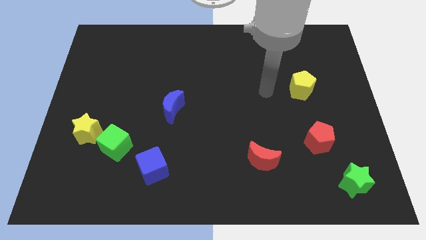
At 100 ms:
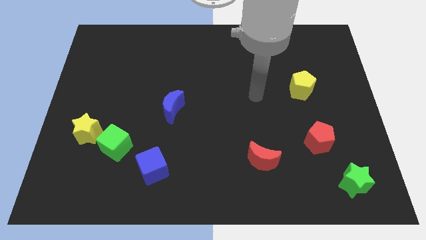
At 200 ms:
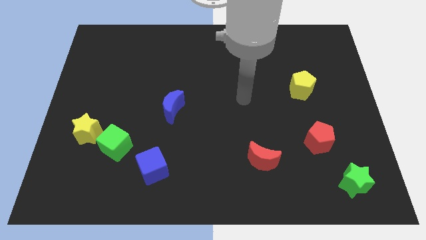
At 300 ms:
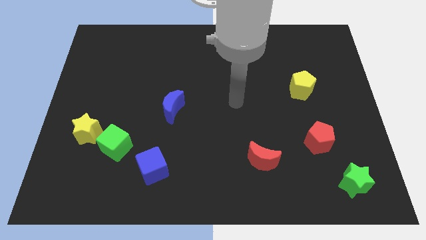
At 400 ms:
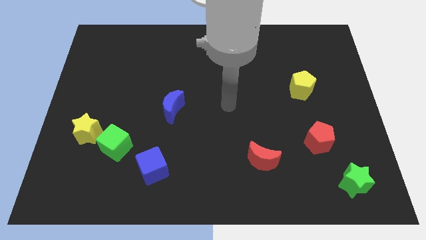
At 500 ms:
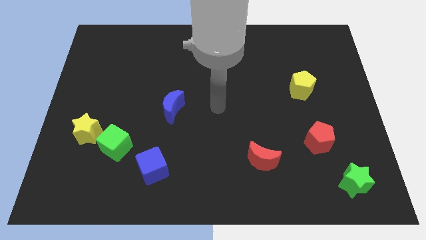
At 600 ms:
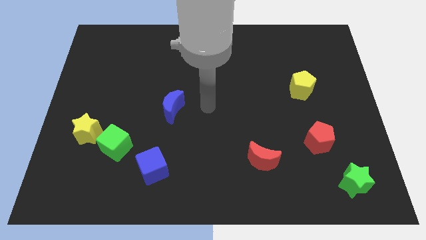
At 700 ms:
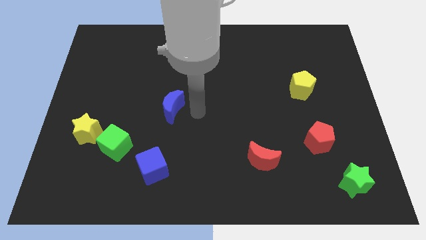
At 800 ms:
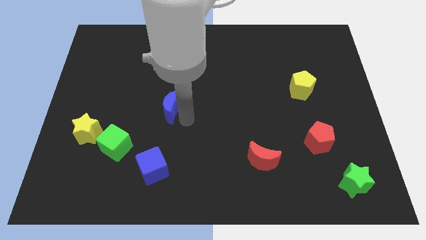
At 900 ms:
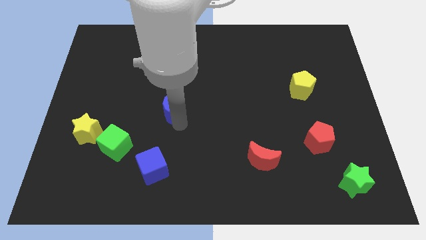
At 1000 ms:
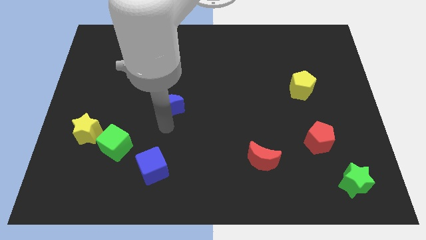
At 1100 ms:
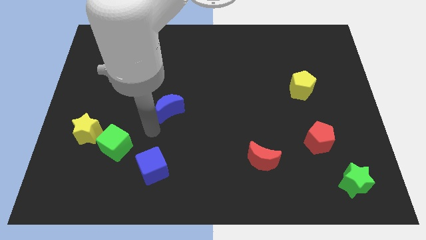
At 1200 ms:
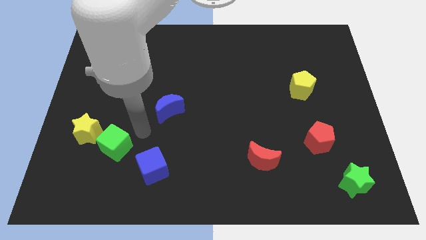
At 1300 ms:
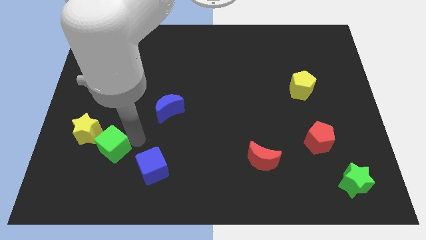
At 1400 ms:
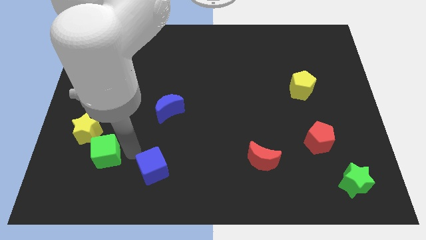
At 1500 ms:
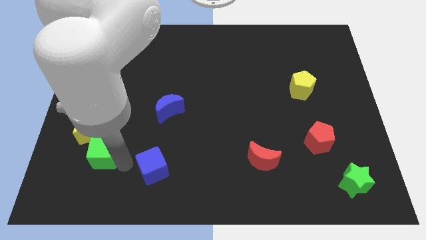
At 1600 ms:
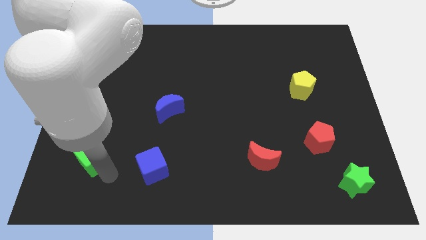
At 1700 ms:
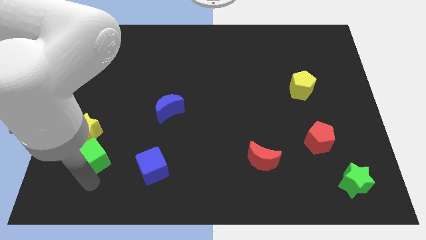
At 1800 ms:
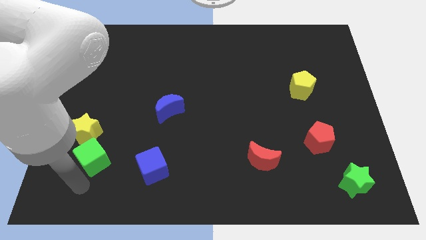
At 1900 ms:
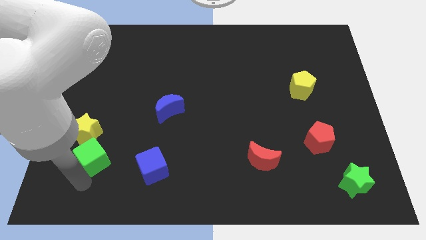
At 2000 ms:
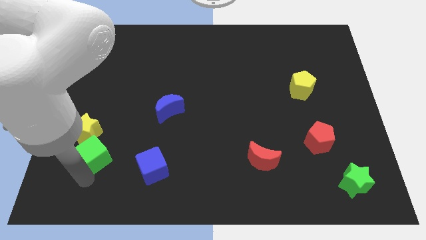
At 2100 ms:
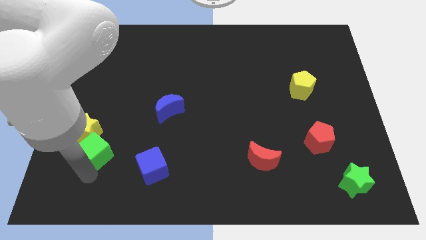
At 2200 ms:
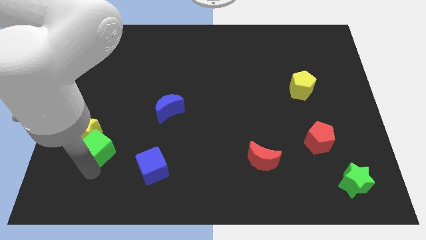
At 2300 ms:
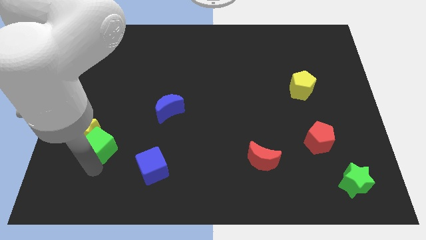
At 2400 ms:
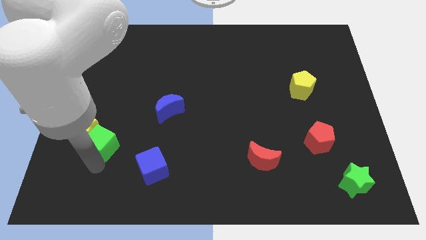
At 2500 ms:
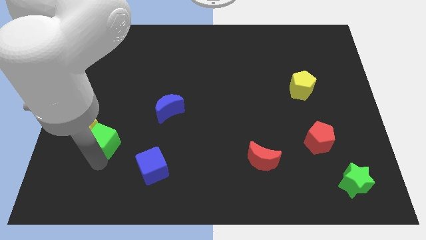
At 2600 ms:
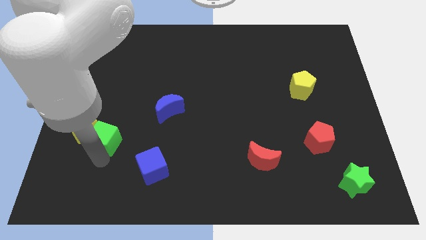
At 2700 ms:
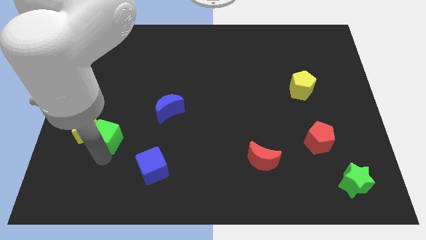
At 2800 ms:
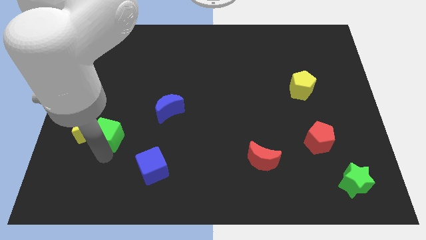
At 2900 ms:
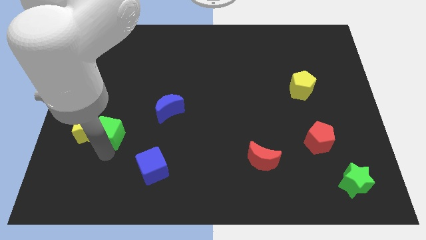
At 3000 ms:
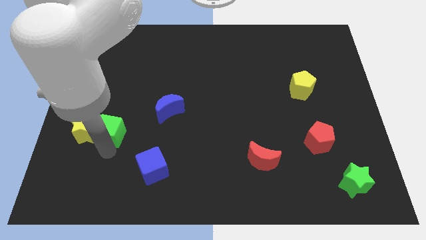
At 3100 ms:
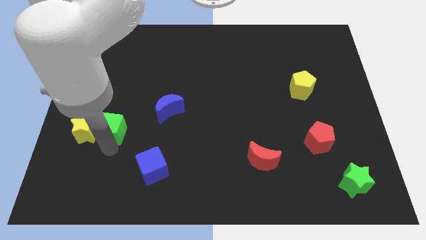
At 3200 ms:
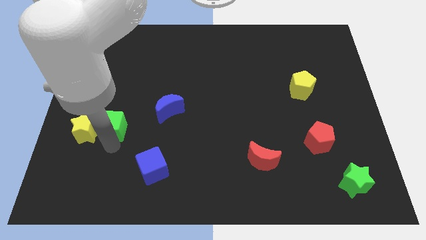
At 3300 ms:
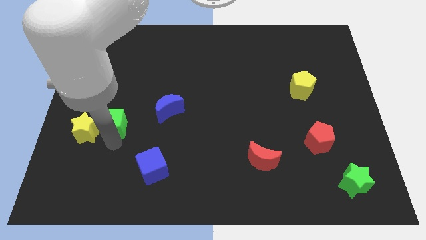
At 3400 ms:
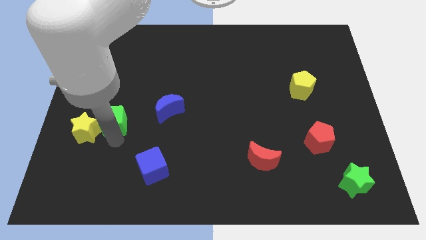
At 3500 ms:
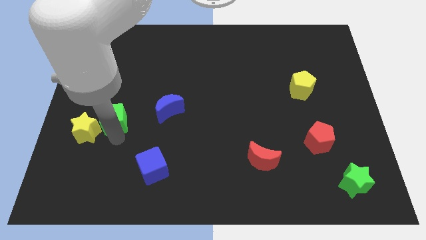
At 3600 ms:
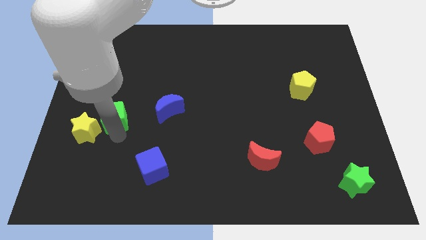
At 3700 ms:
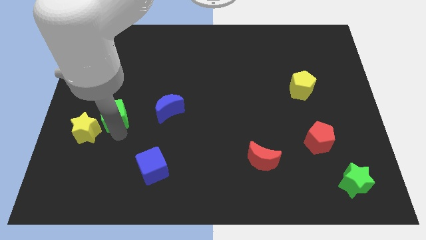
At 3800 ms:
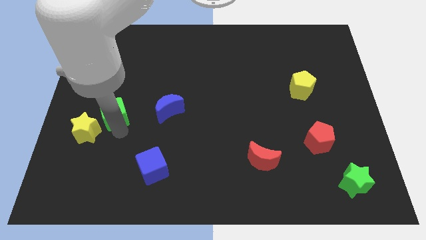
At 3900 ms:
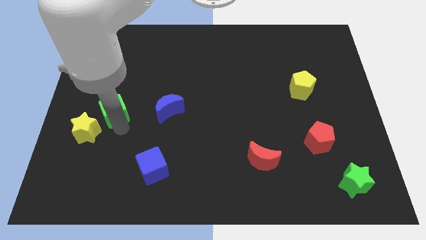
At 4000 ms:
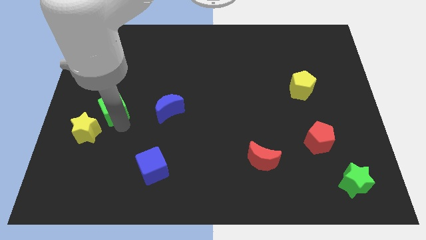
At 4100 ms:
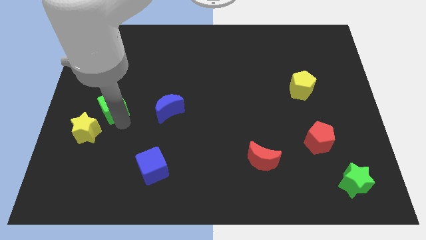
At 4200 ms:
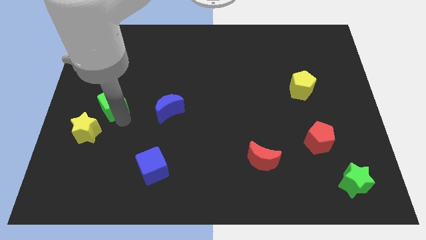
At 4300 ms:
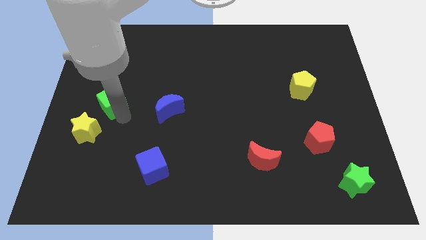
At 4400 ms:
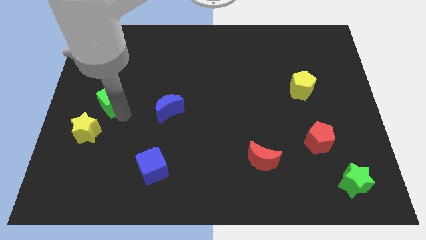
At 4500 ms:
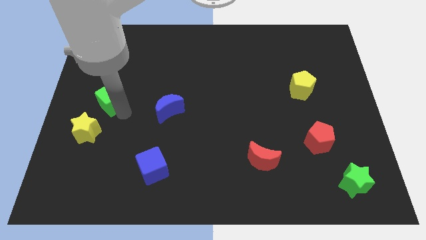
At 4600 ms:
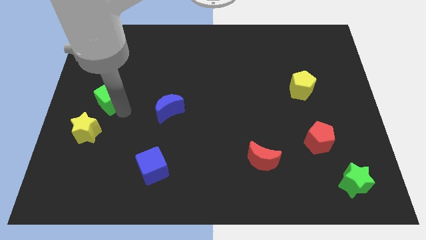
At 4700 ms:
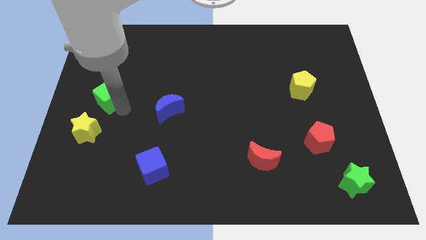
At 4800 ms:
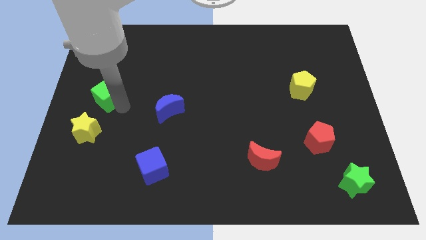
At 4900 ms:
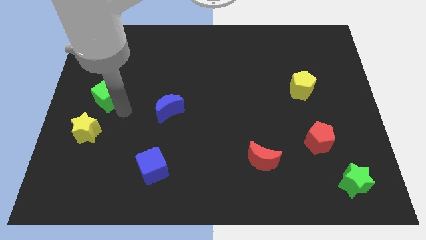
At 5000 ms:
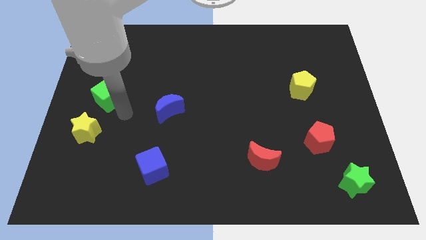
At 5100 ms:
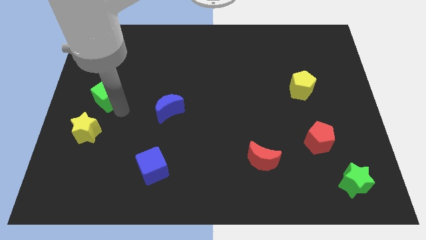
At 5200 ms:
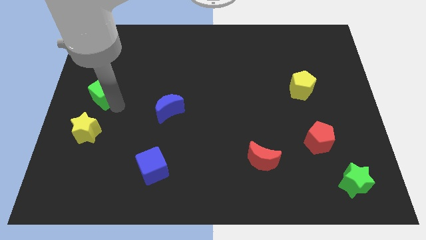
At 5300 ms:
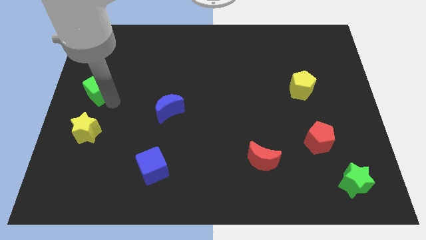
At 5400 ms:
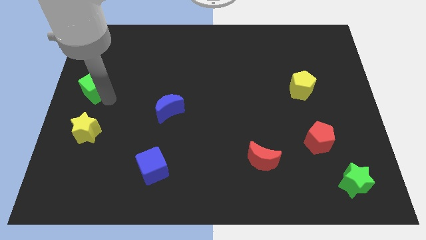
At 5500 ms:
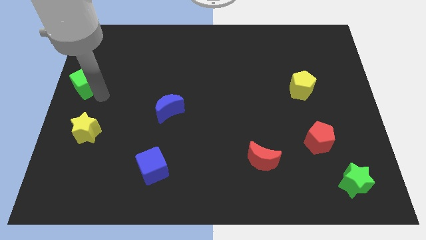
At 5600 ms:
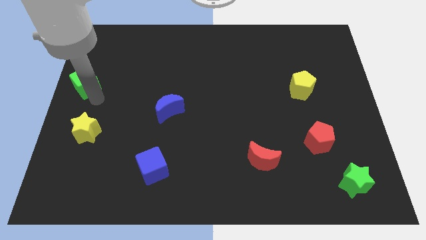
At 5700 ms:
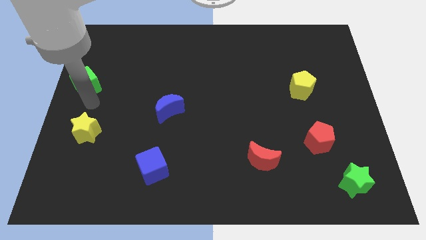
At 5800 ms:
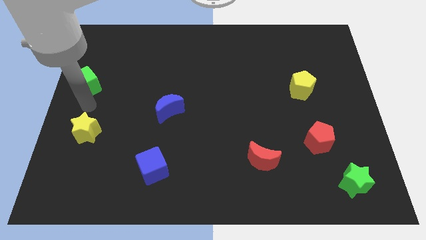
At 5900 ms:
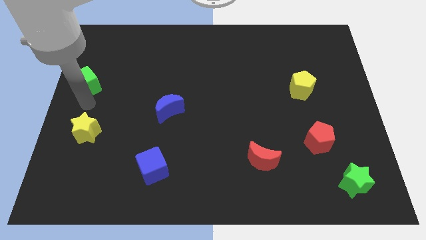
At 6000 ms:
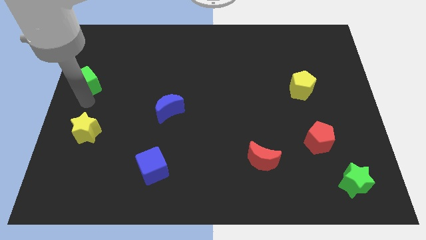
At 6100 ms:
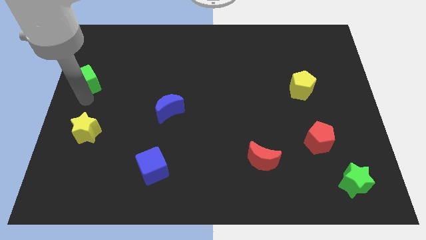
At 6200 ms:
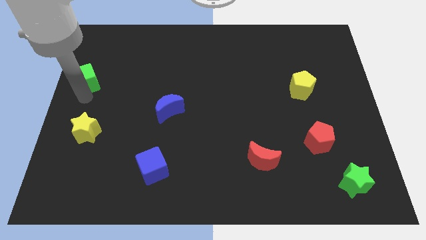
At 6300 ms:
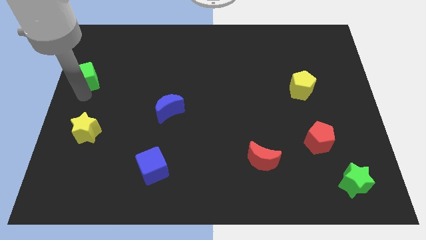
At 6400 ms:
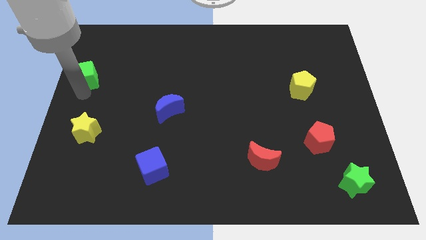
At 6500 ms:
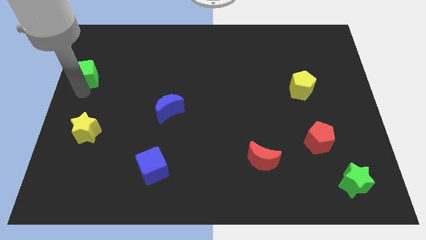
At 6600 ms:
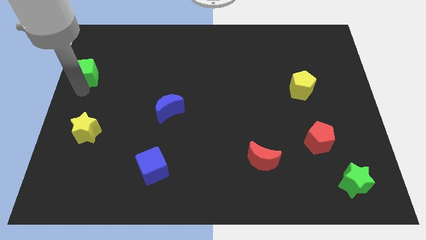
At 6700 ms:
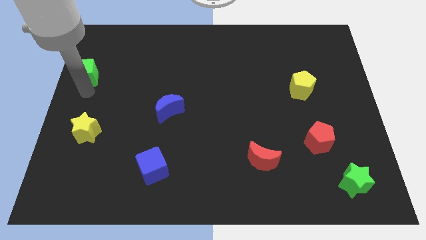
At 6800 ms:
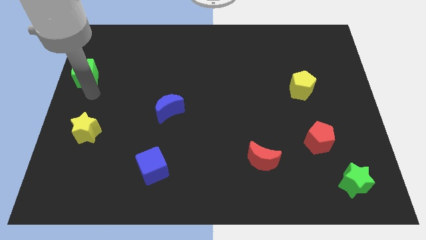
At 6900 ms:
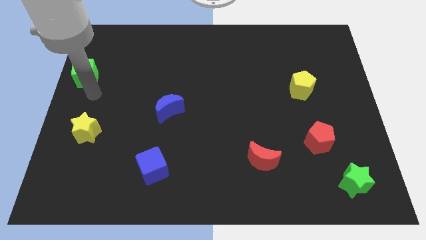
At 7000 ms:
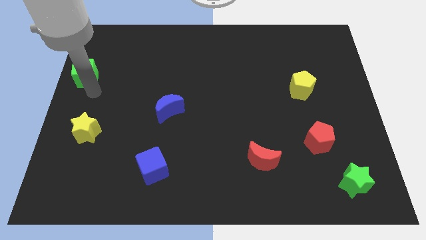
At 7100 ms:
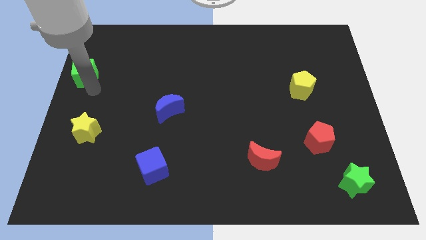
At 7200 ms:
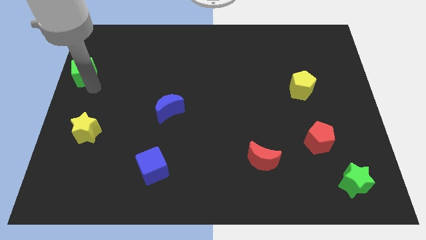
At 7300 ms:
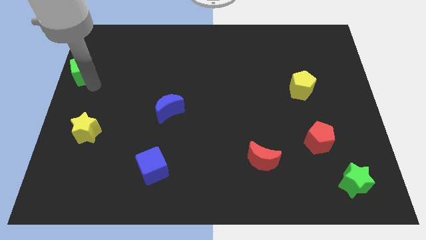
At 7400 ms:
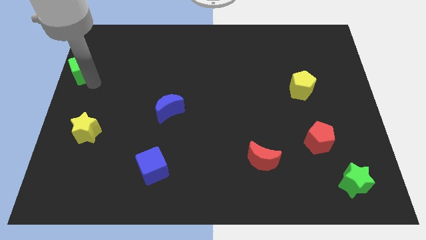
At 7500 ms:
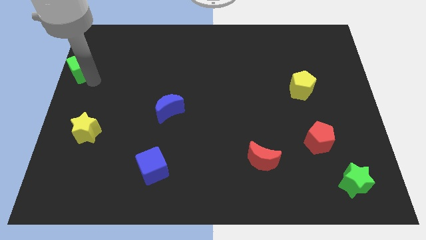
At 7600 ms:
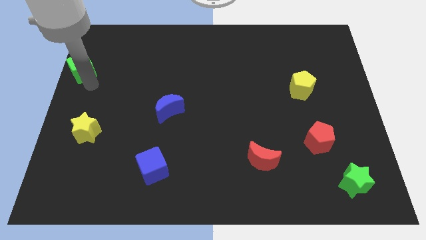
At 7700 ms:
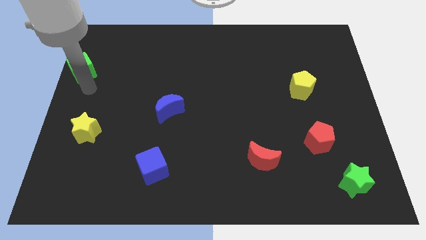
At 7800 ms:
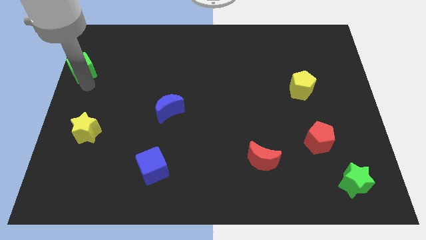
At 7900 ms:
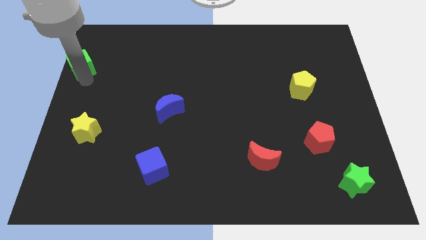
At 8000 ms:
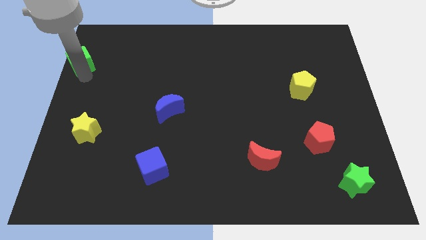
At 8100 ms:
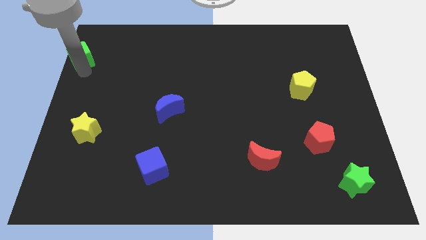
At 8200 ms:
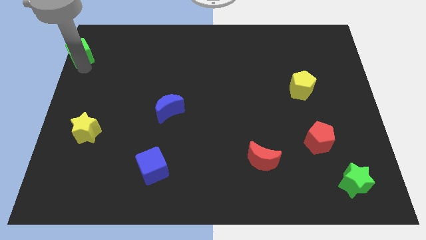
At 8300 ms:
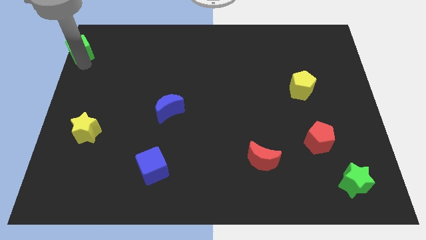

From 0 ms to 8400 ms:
push the green cube to the upper left corner
